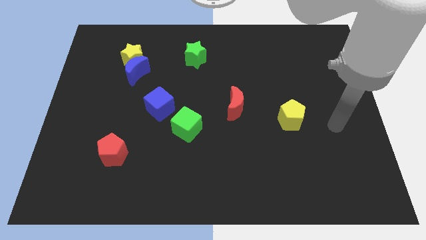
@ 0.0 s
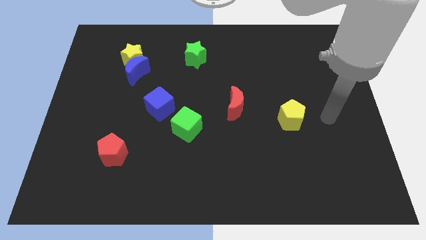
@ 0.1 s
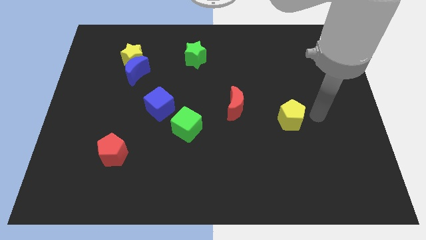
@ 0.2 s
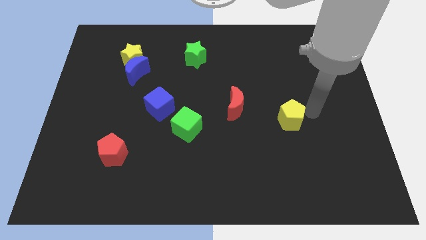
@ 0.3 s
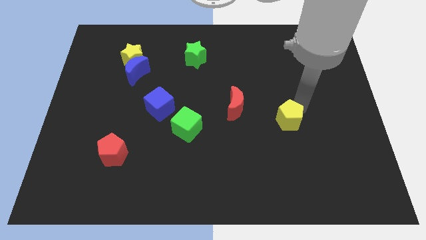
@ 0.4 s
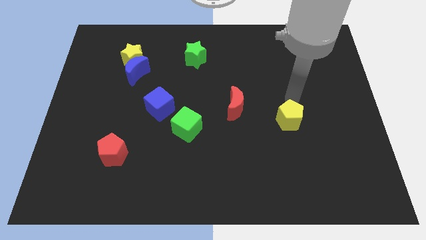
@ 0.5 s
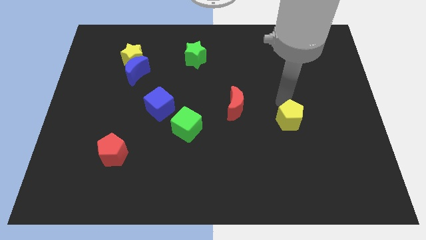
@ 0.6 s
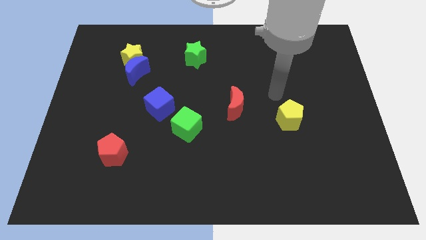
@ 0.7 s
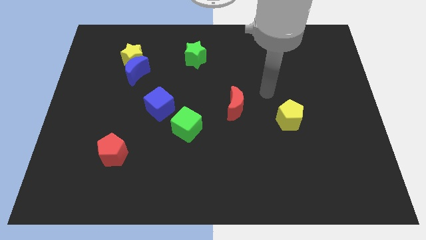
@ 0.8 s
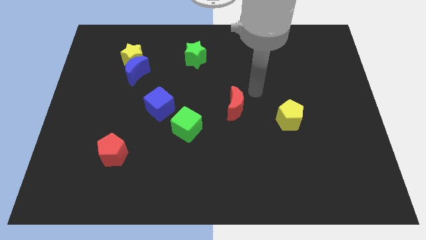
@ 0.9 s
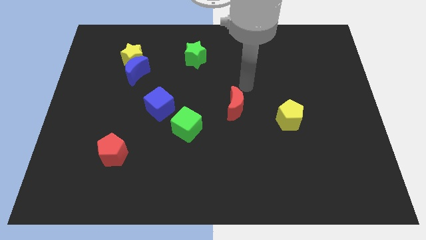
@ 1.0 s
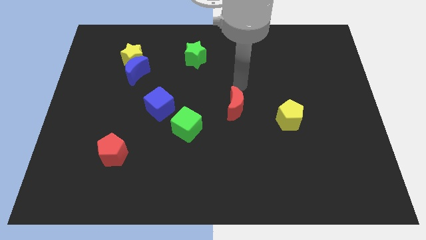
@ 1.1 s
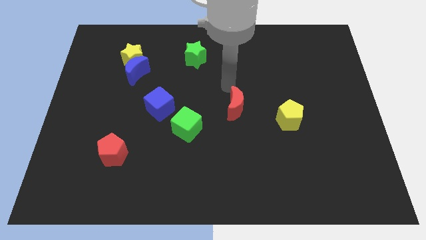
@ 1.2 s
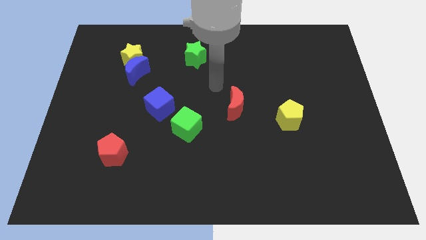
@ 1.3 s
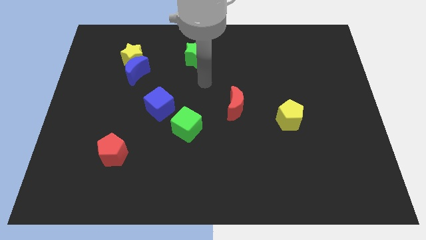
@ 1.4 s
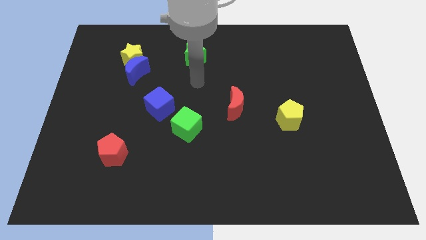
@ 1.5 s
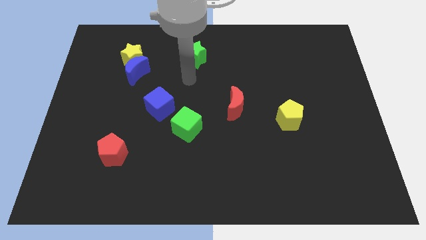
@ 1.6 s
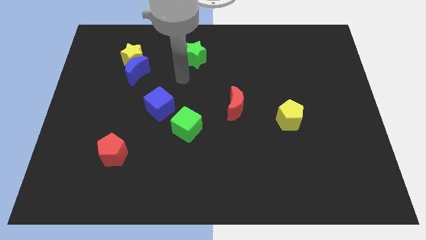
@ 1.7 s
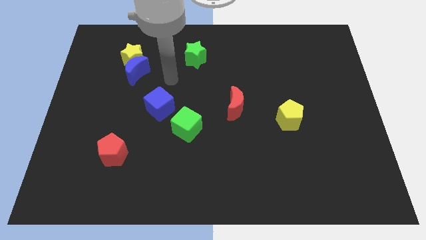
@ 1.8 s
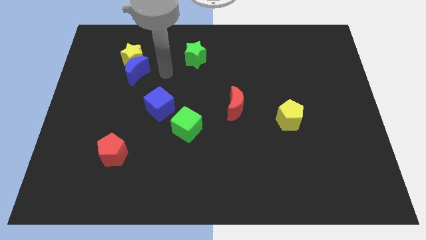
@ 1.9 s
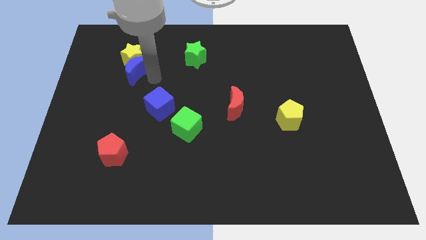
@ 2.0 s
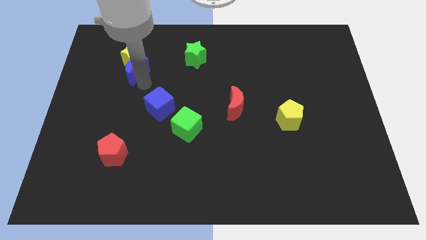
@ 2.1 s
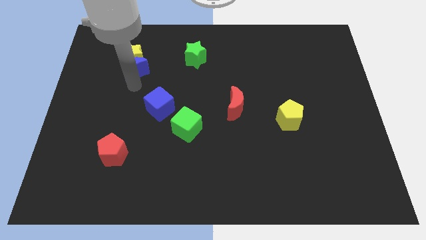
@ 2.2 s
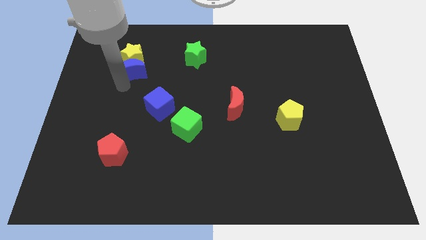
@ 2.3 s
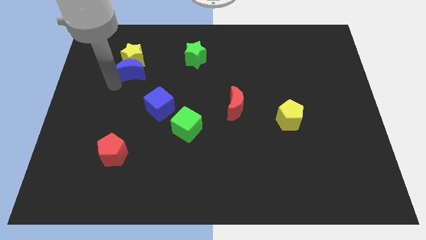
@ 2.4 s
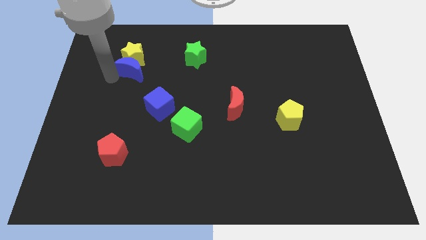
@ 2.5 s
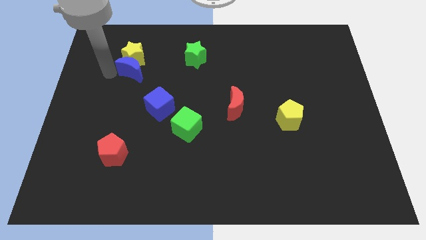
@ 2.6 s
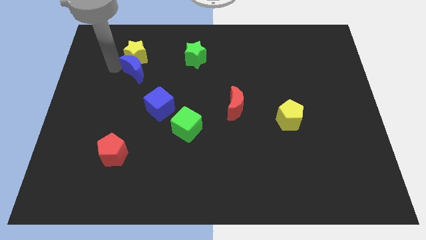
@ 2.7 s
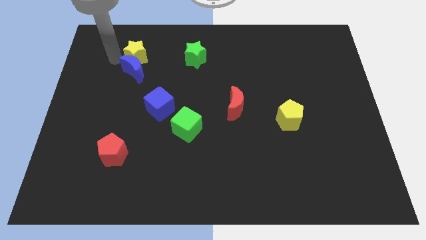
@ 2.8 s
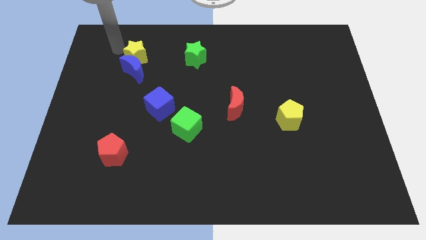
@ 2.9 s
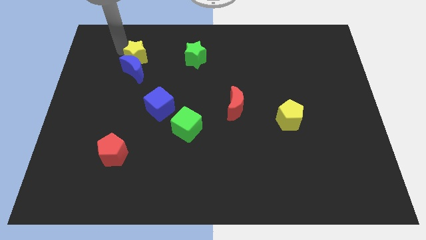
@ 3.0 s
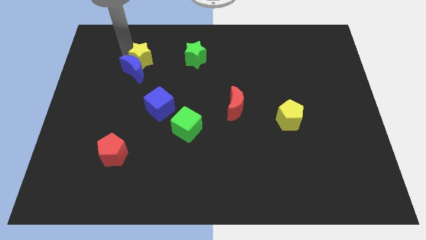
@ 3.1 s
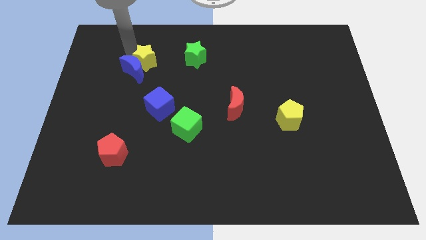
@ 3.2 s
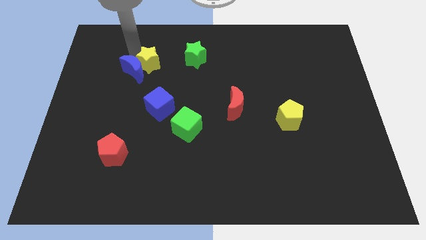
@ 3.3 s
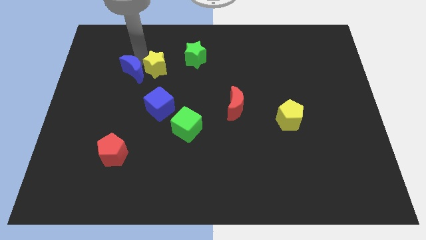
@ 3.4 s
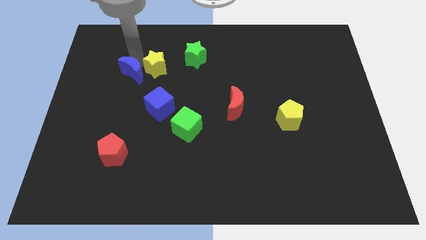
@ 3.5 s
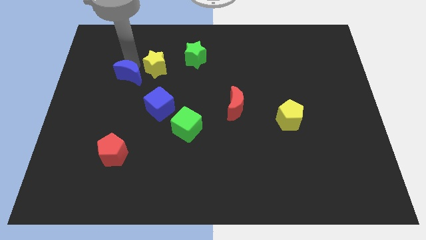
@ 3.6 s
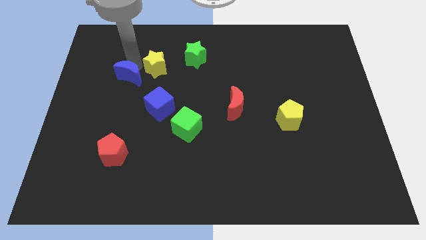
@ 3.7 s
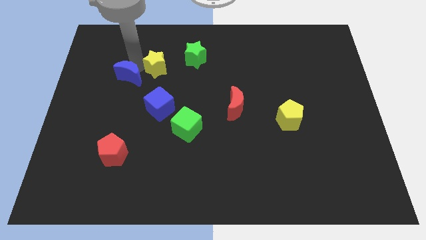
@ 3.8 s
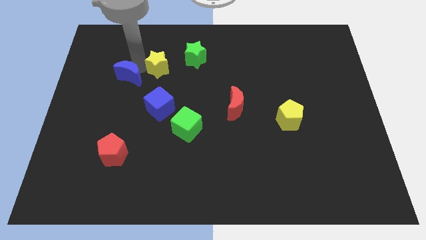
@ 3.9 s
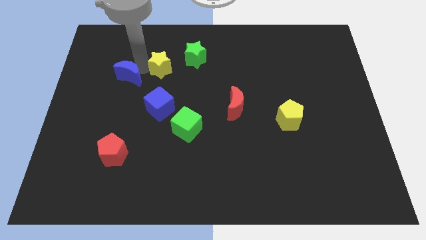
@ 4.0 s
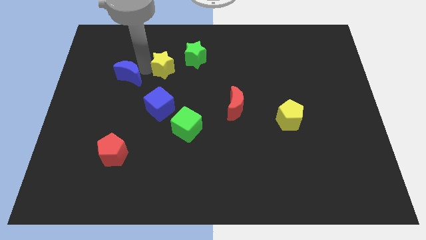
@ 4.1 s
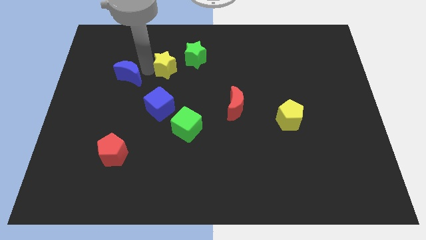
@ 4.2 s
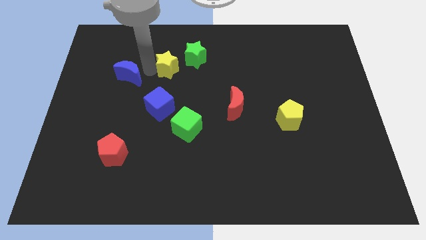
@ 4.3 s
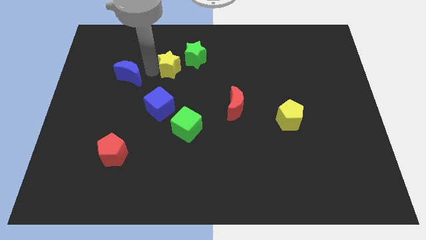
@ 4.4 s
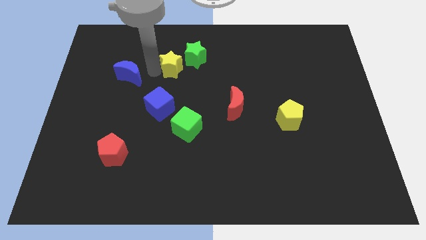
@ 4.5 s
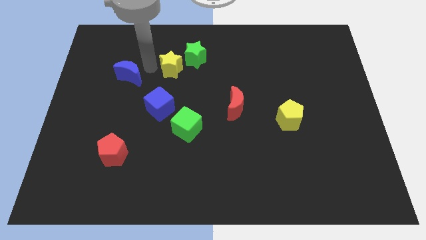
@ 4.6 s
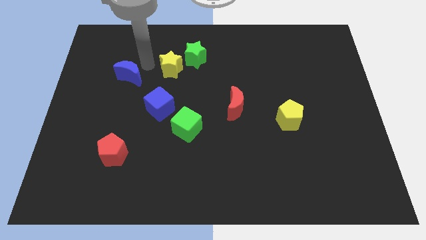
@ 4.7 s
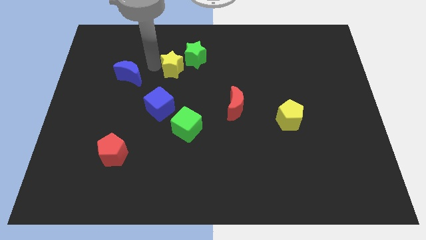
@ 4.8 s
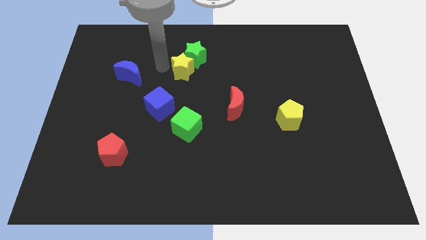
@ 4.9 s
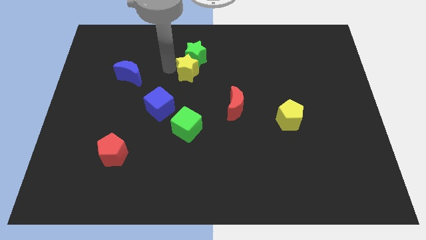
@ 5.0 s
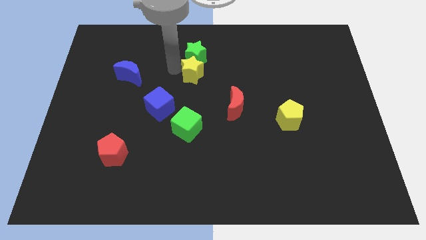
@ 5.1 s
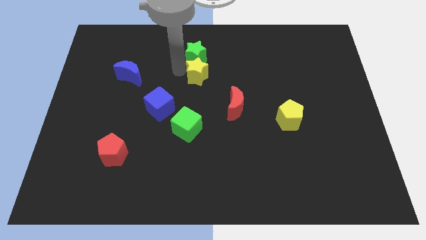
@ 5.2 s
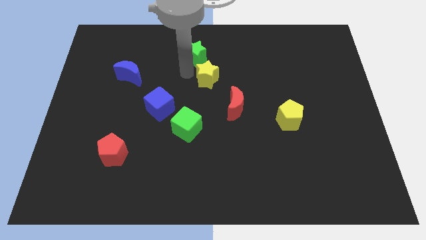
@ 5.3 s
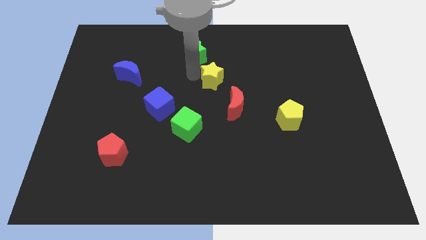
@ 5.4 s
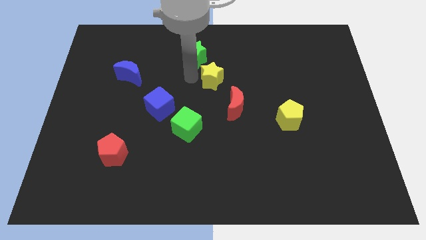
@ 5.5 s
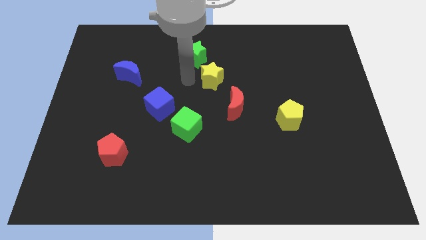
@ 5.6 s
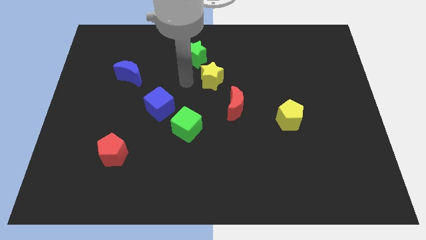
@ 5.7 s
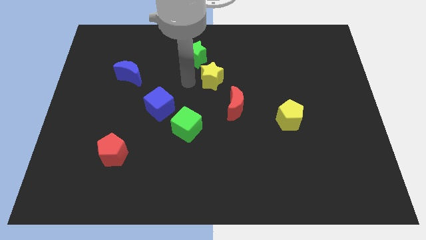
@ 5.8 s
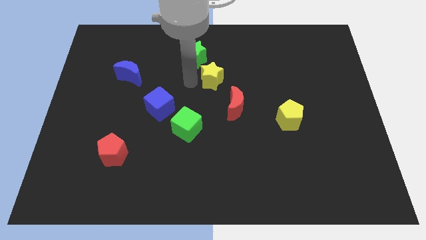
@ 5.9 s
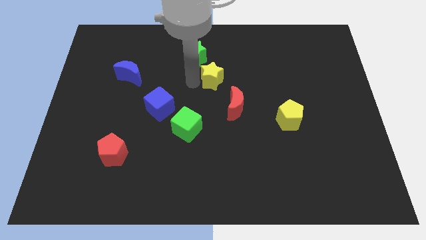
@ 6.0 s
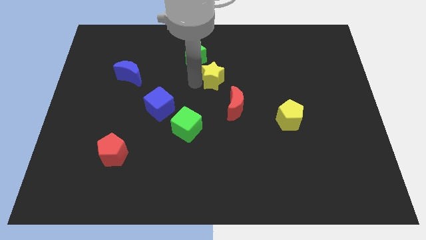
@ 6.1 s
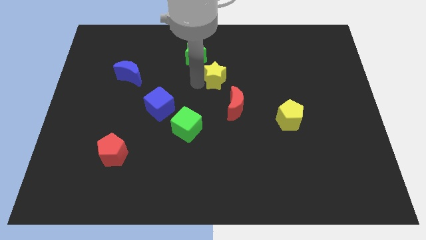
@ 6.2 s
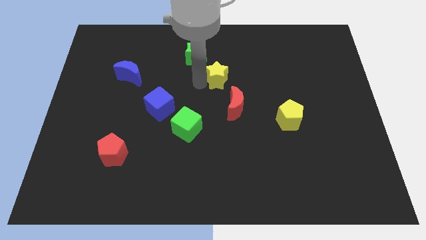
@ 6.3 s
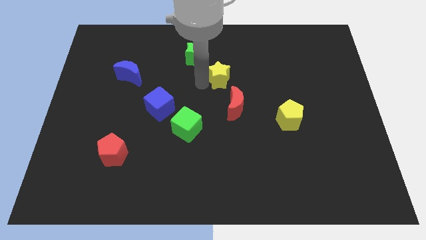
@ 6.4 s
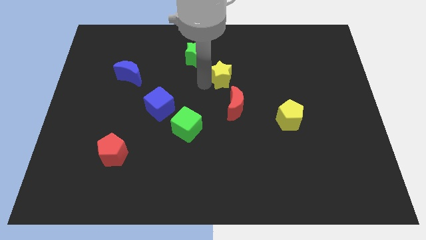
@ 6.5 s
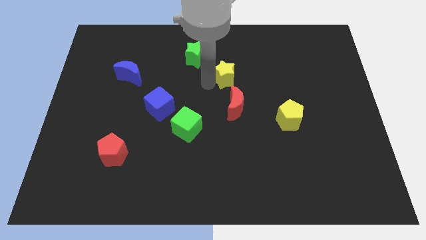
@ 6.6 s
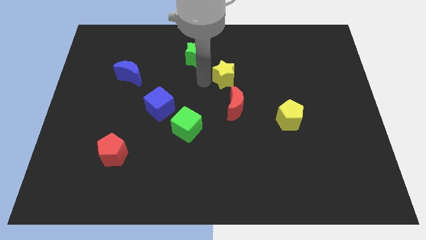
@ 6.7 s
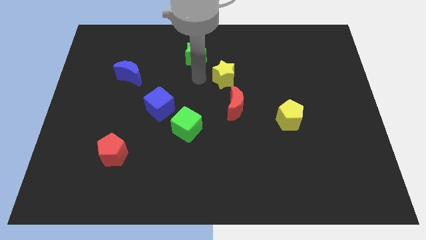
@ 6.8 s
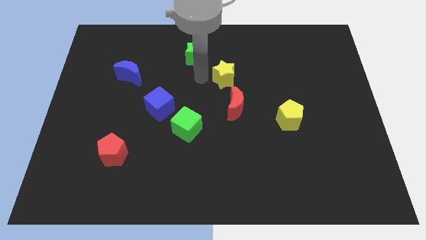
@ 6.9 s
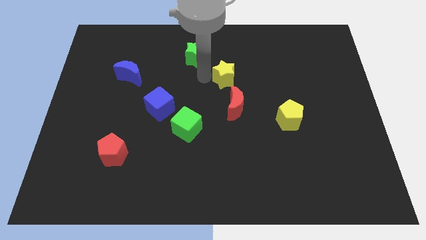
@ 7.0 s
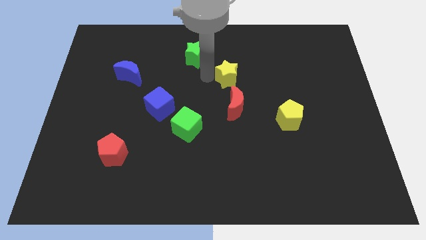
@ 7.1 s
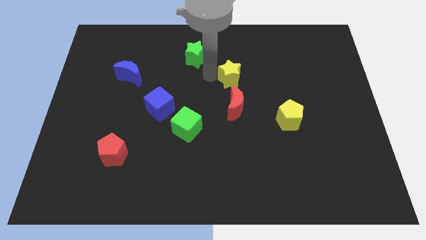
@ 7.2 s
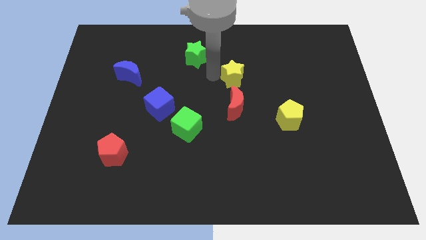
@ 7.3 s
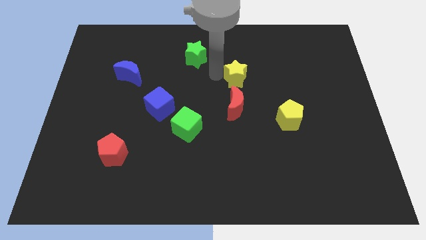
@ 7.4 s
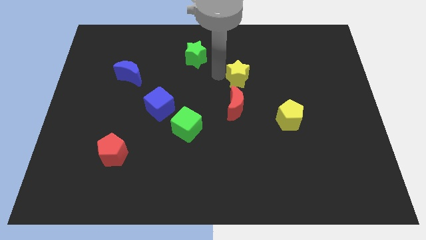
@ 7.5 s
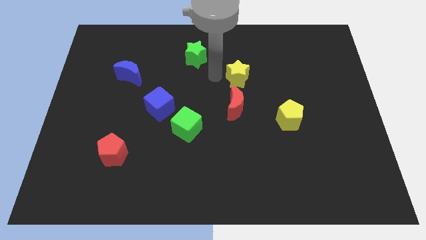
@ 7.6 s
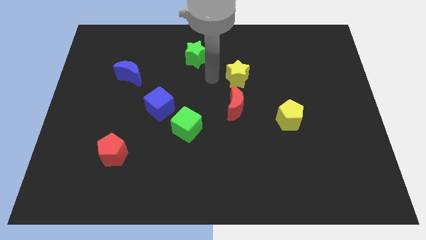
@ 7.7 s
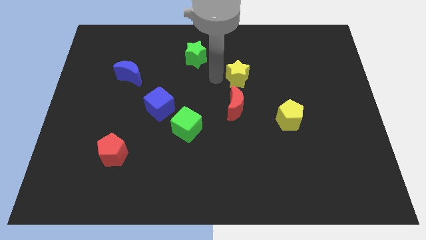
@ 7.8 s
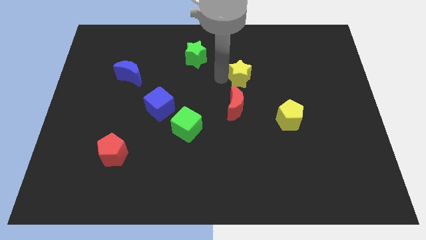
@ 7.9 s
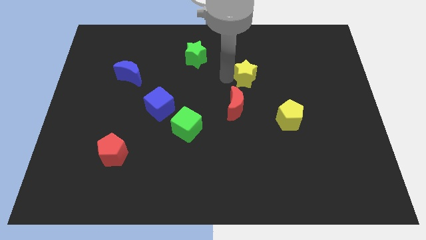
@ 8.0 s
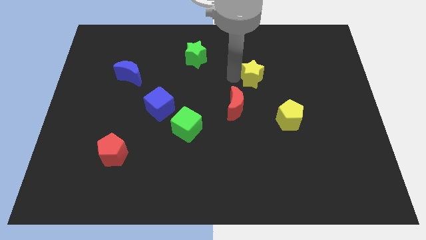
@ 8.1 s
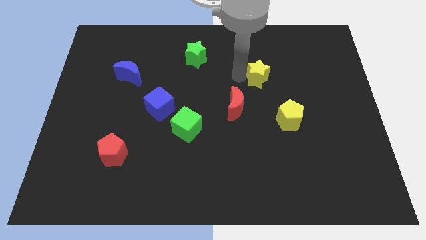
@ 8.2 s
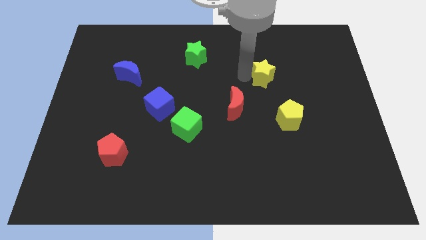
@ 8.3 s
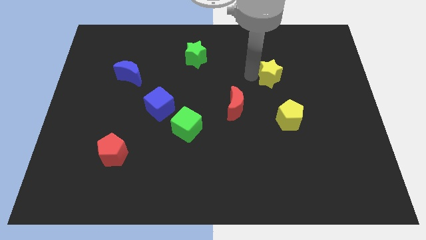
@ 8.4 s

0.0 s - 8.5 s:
slide the yellow star to the top of the yellow pentagon
